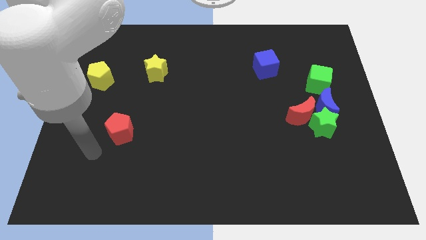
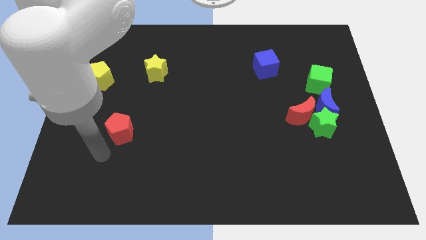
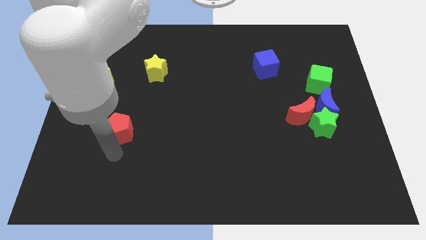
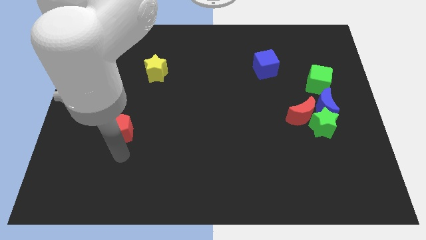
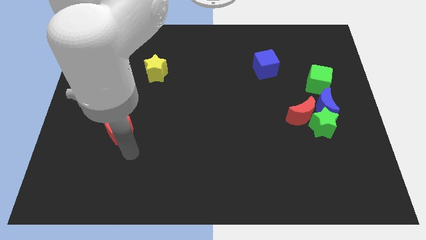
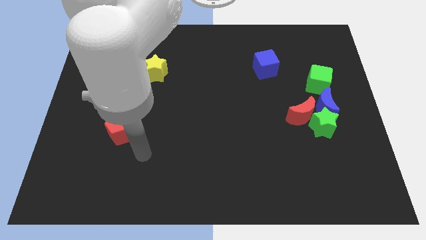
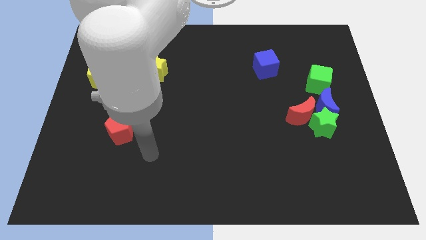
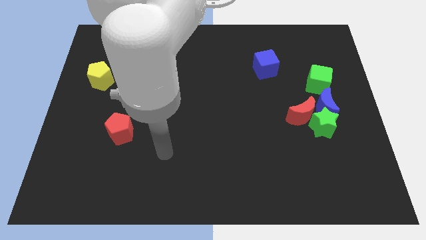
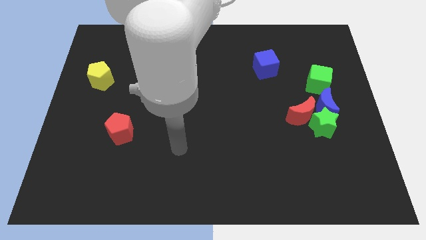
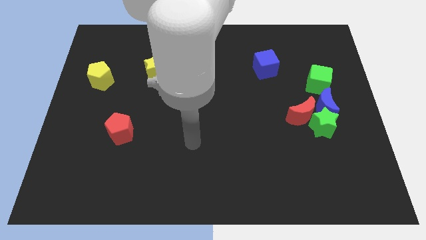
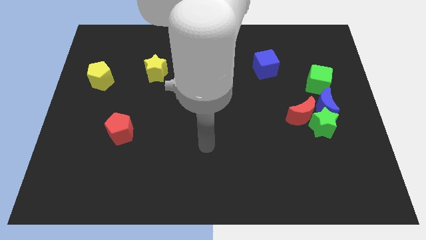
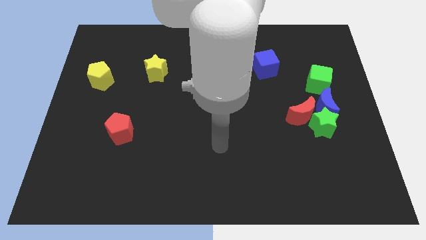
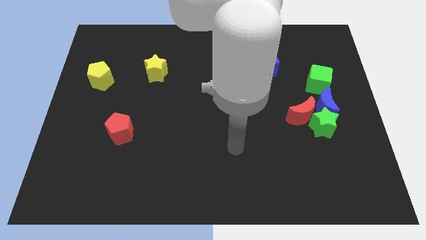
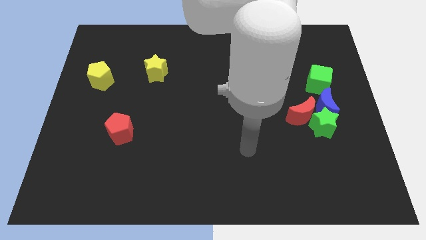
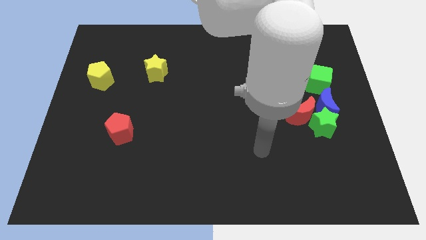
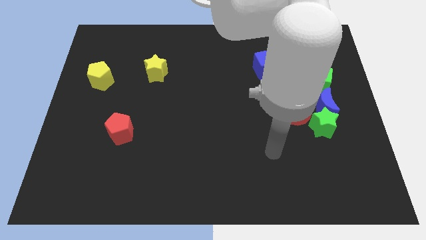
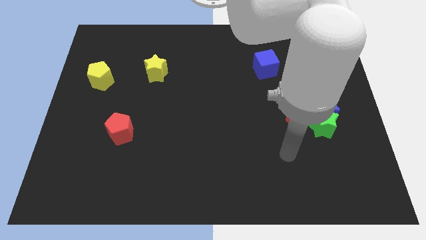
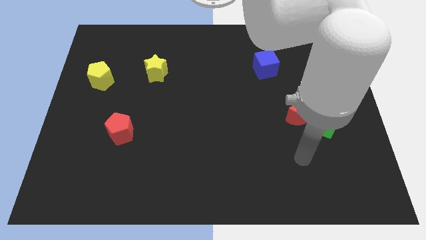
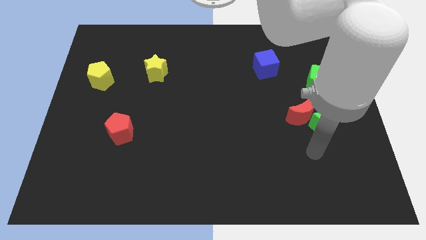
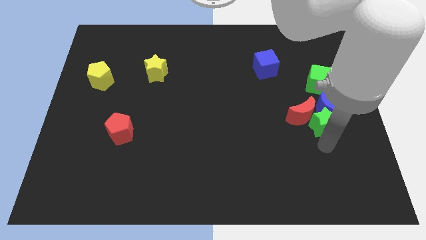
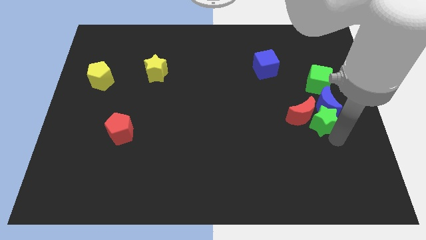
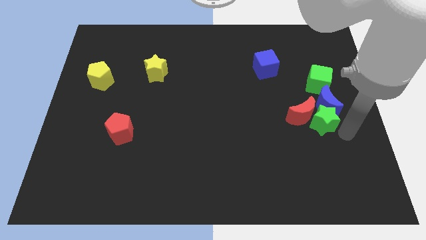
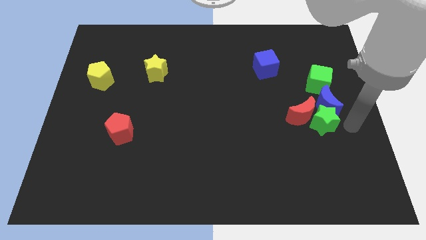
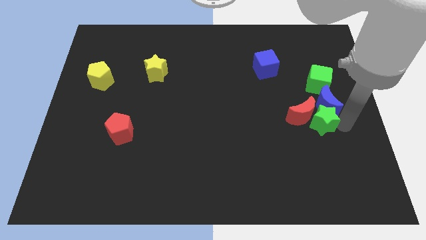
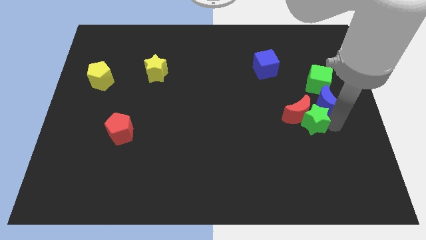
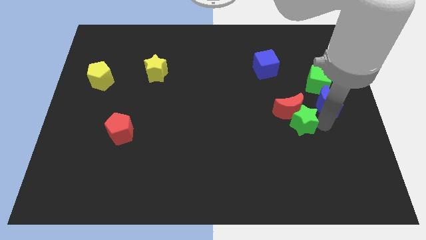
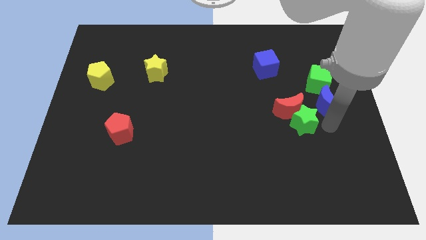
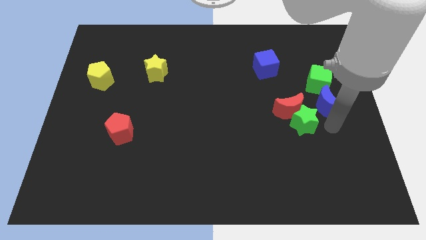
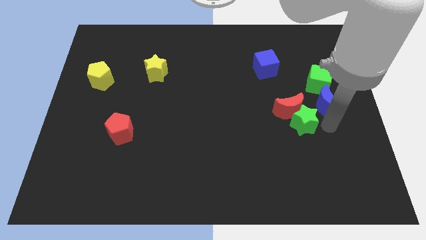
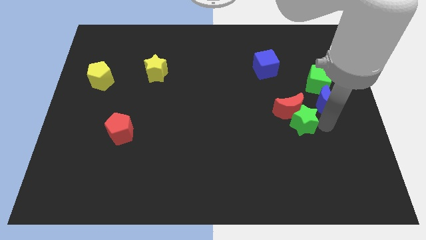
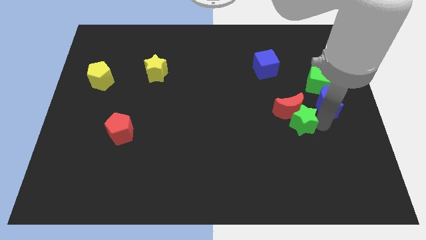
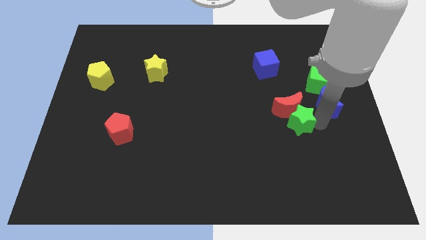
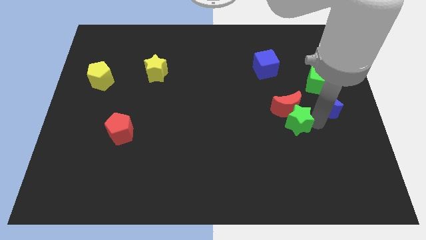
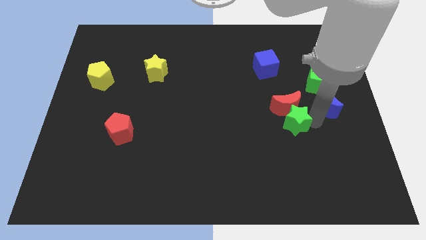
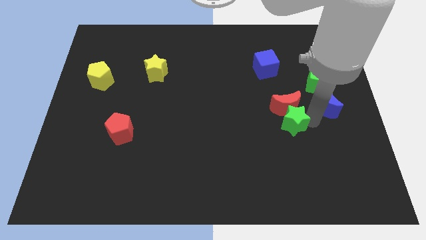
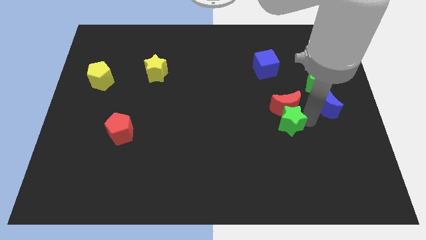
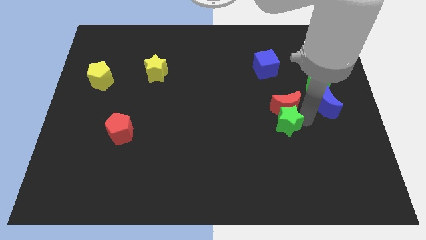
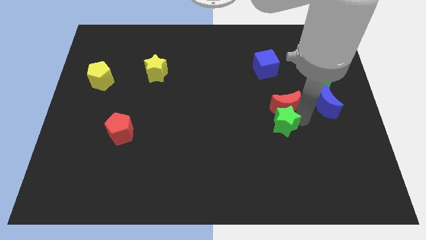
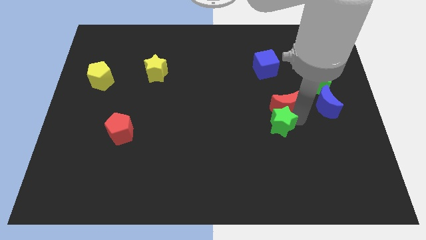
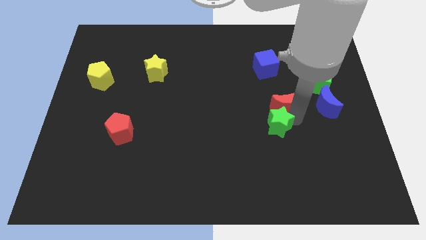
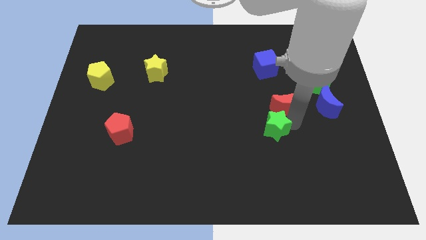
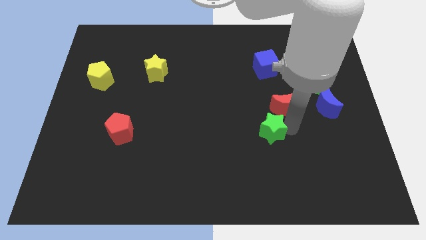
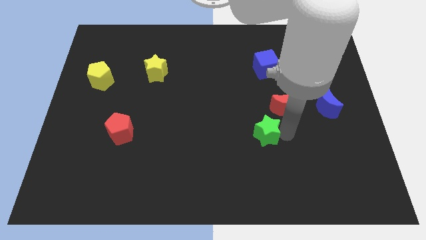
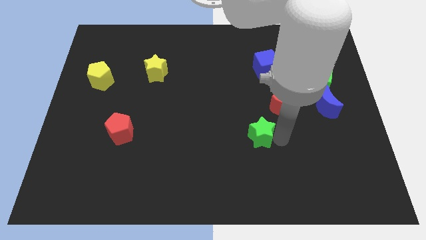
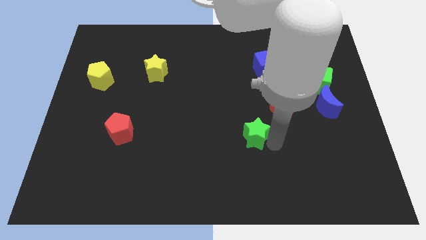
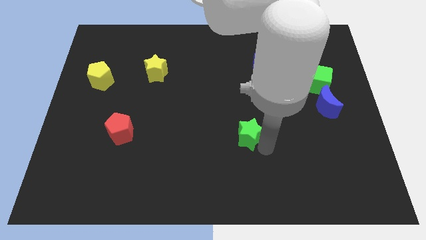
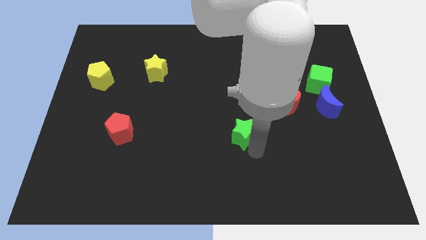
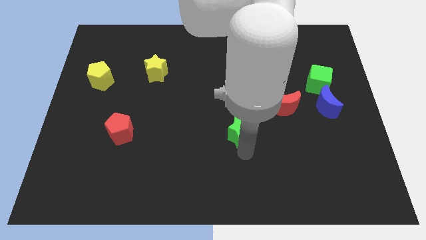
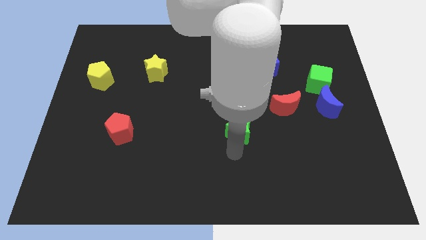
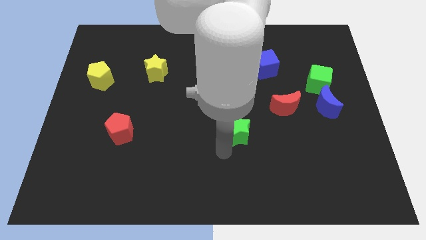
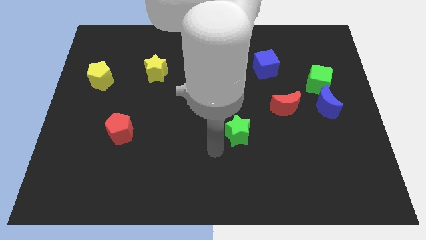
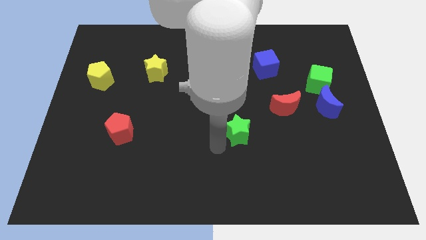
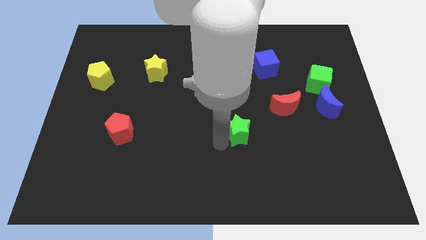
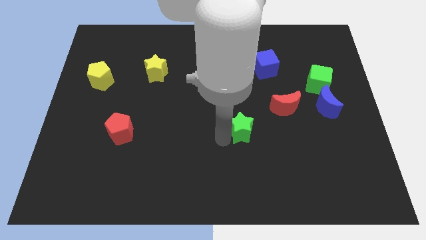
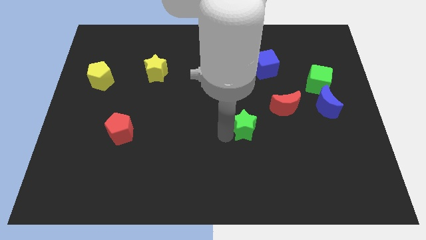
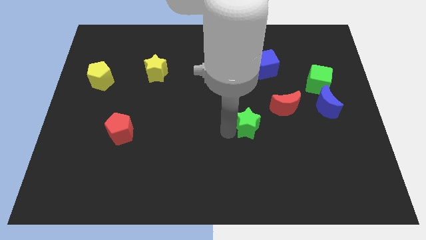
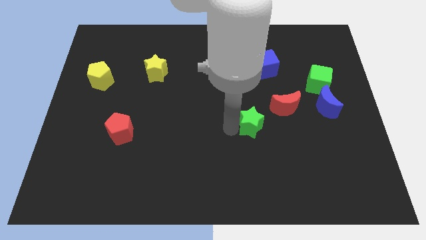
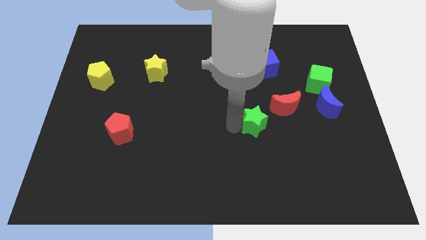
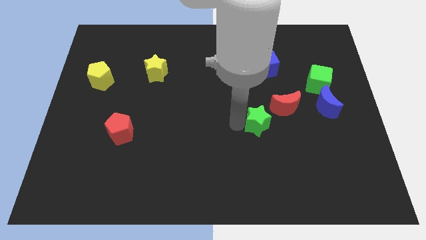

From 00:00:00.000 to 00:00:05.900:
slightly move the green star up and to the left diagonally

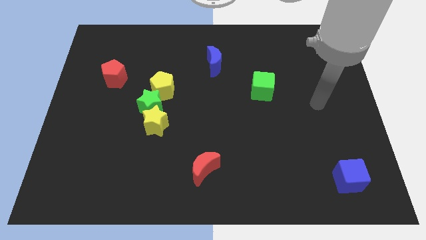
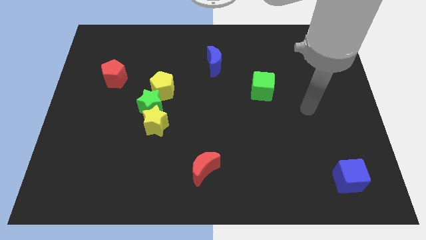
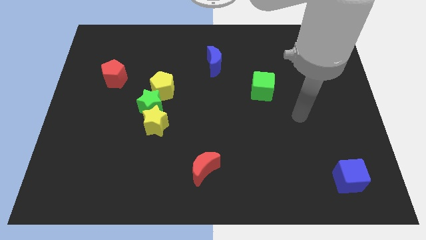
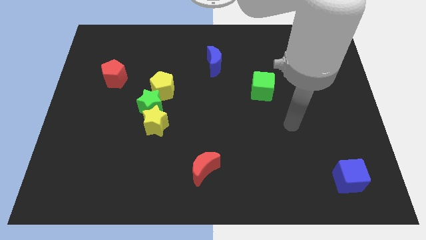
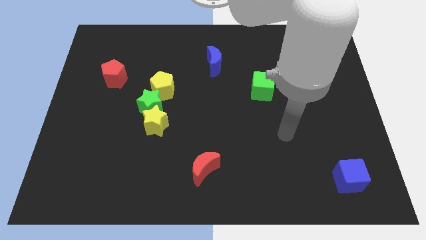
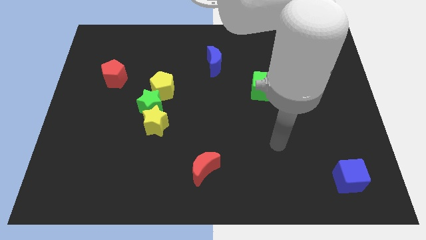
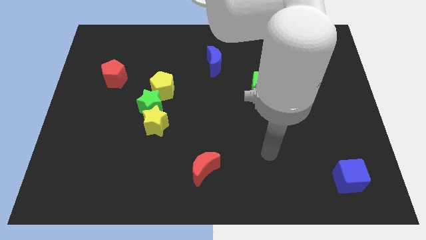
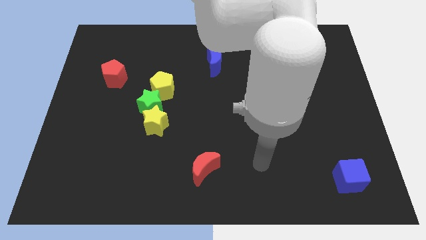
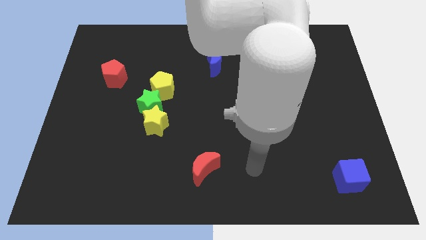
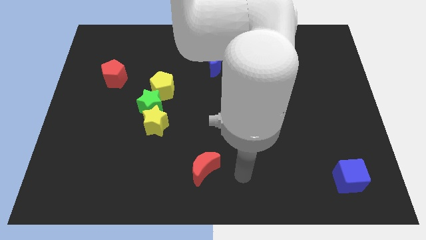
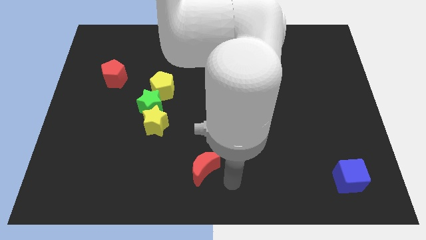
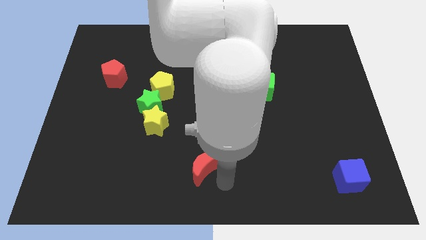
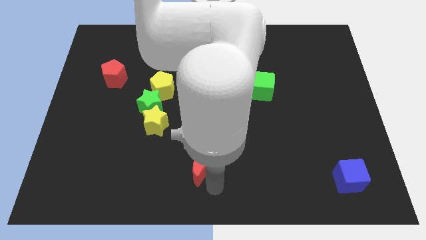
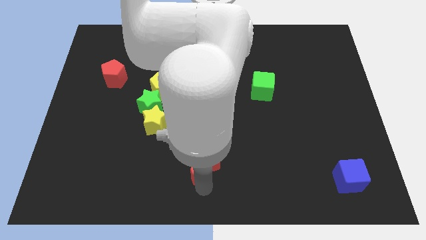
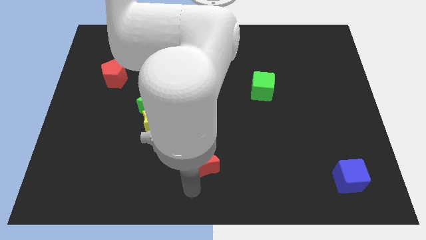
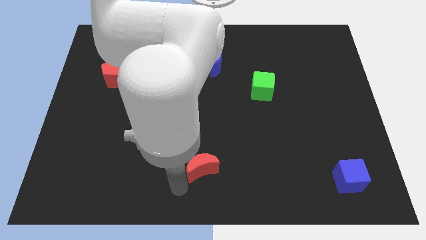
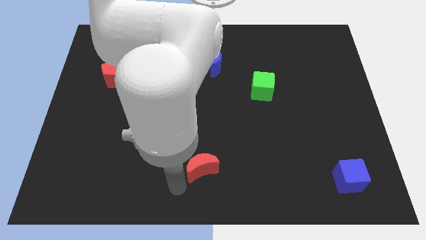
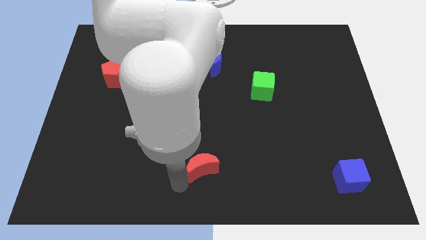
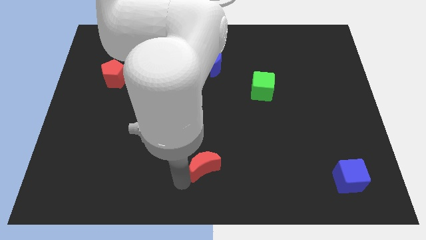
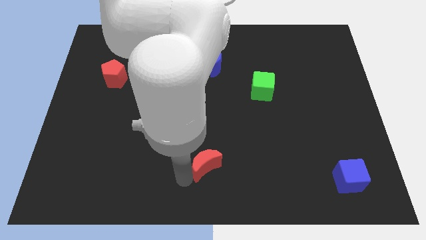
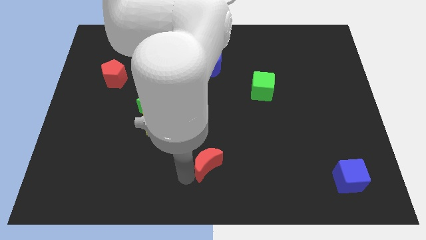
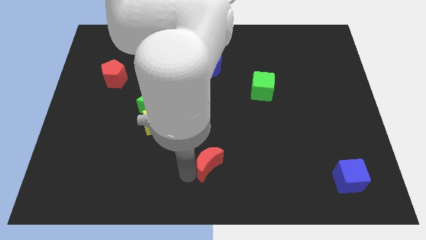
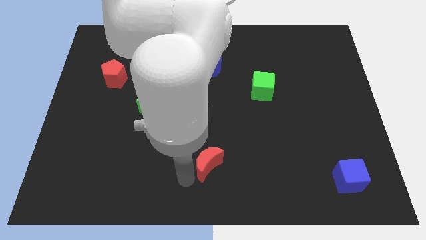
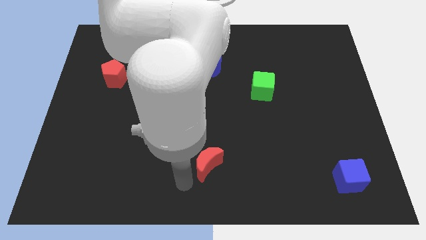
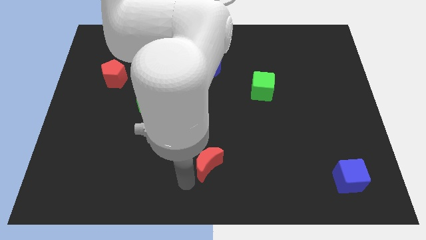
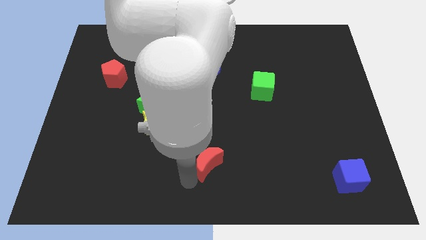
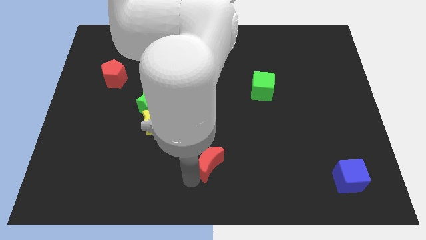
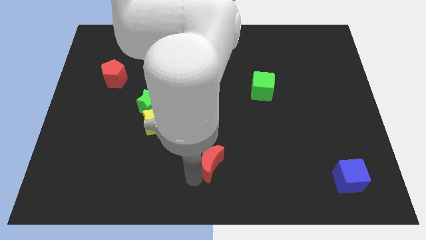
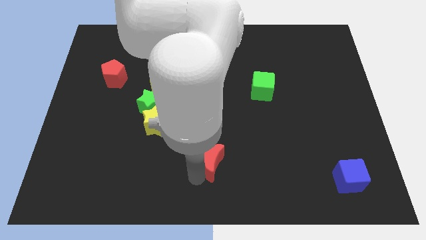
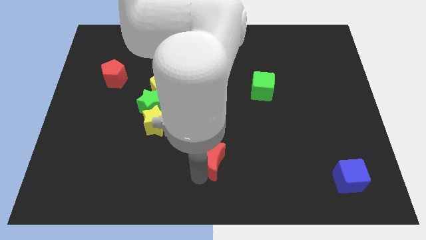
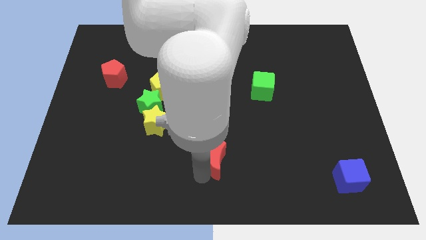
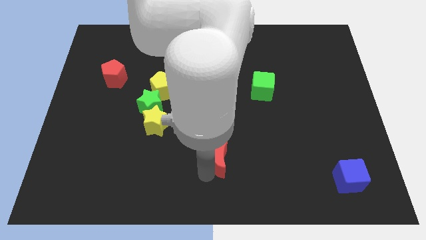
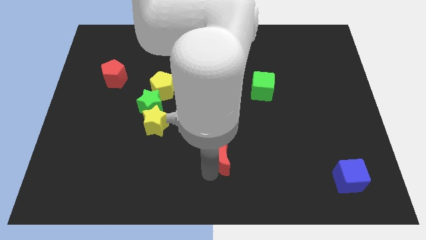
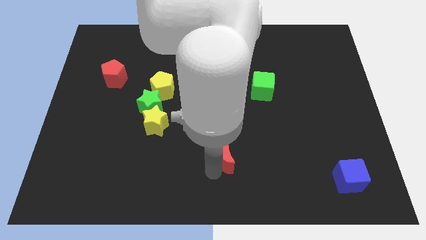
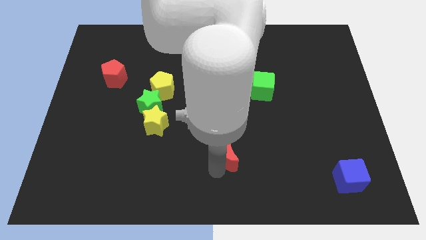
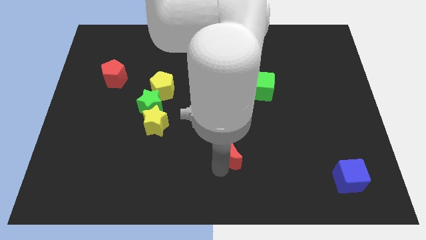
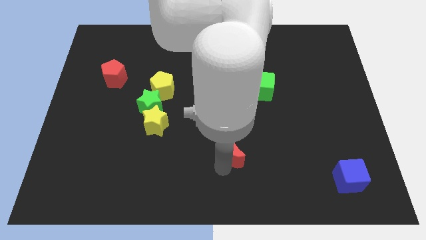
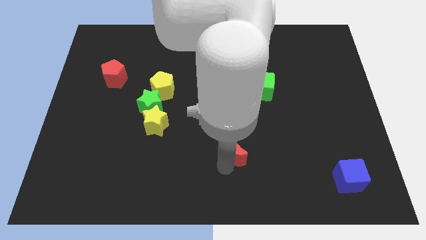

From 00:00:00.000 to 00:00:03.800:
slide the red moon a little up and then right
